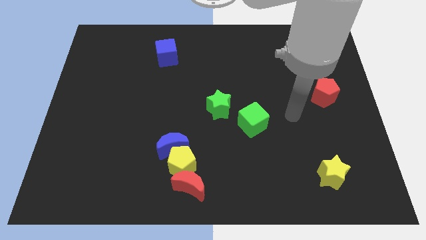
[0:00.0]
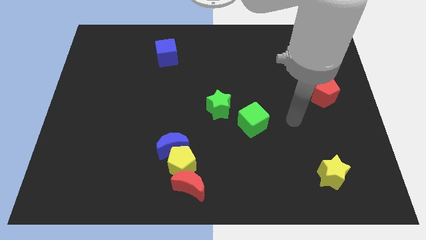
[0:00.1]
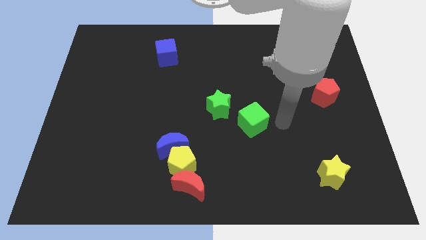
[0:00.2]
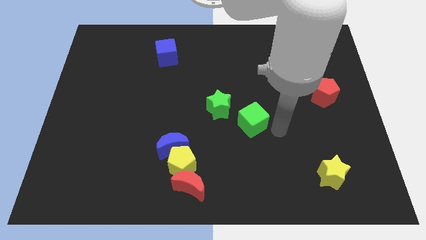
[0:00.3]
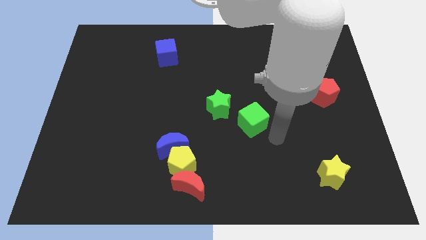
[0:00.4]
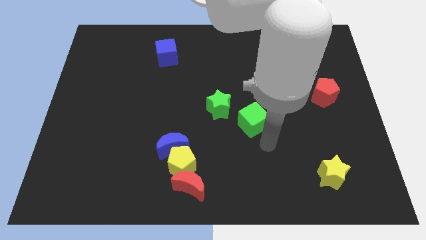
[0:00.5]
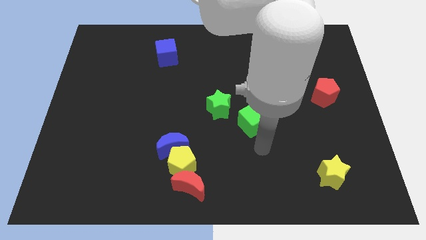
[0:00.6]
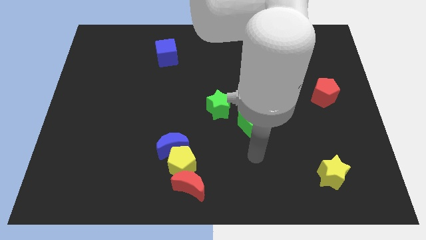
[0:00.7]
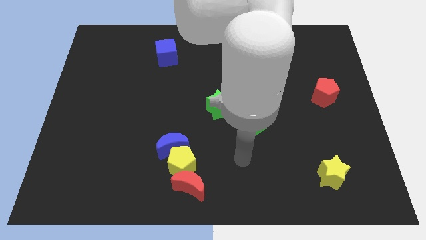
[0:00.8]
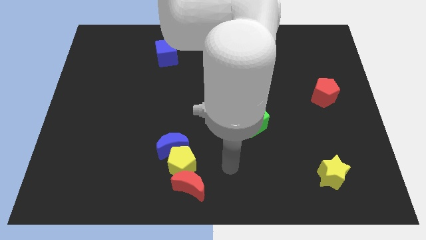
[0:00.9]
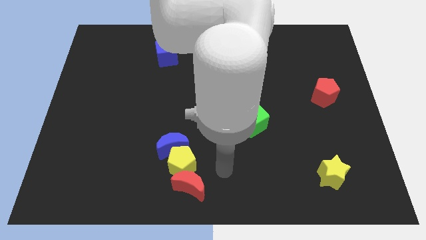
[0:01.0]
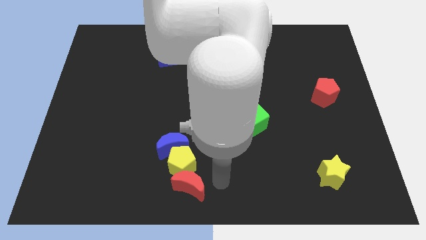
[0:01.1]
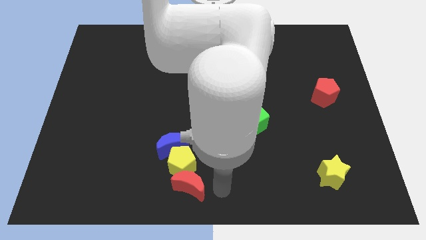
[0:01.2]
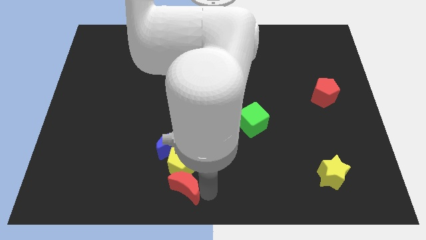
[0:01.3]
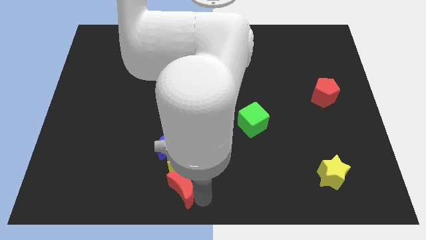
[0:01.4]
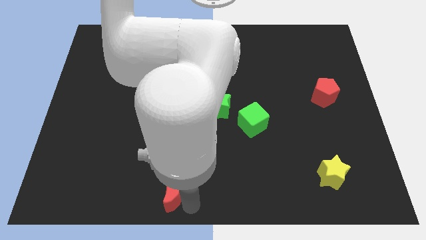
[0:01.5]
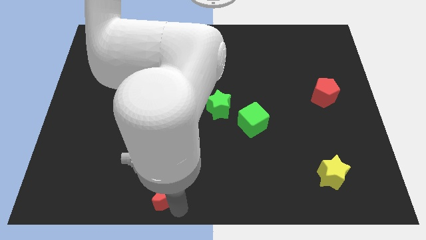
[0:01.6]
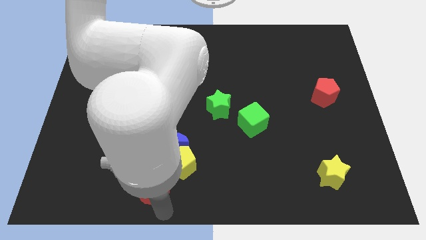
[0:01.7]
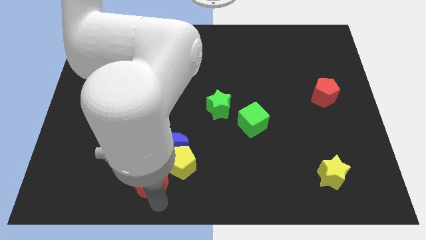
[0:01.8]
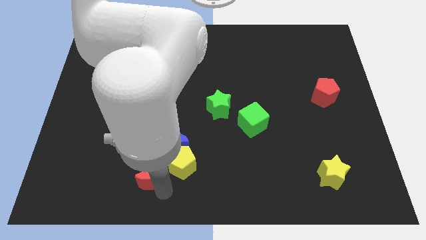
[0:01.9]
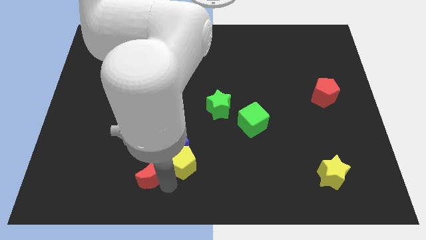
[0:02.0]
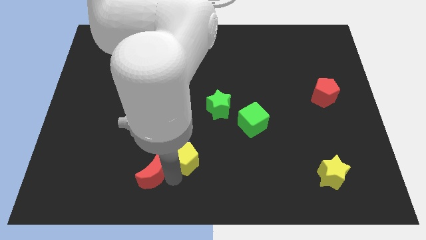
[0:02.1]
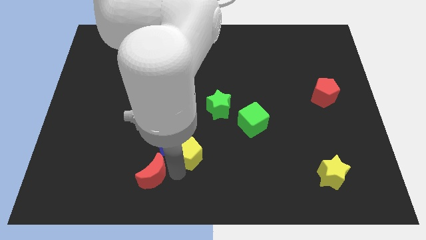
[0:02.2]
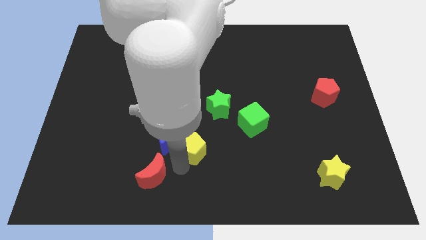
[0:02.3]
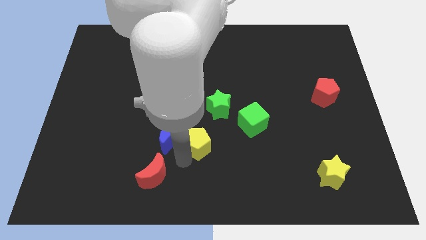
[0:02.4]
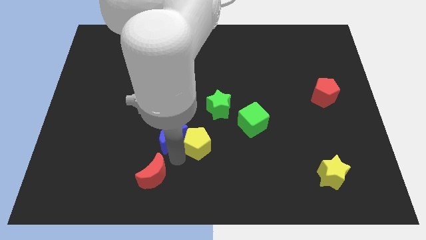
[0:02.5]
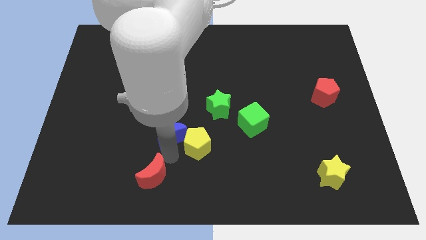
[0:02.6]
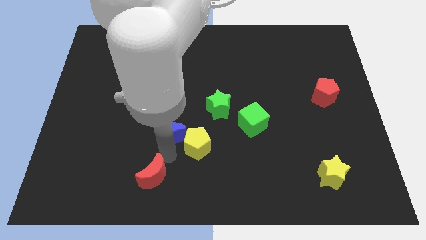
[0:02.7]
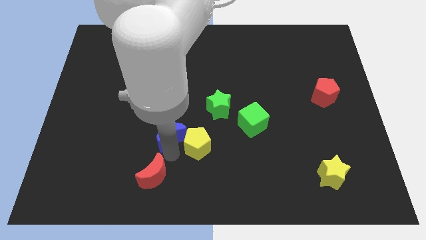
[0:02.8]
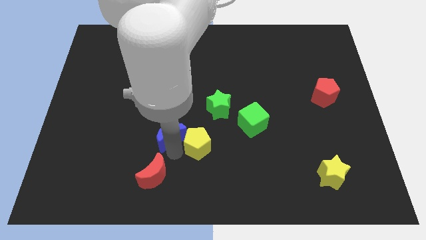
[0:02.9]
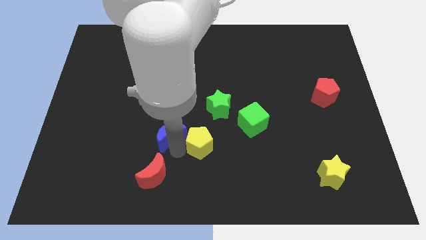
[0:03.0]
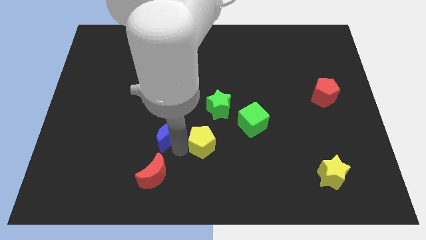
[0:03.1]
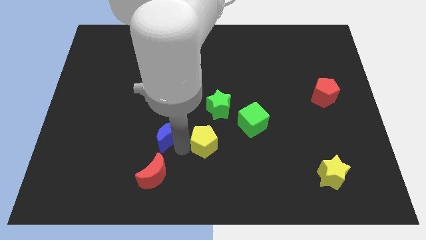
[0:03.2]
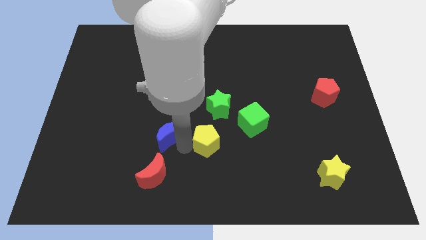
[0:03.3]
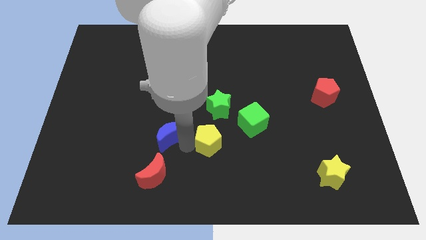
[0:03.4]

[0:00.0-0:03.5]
separate the yellow pentagon from the blue moon and red moon

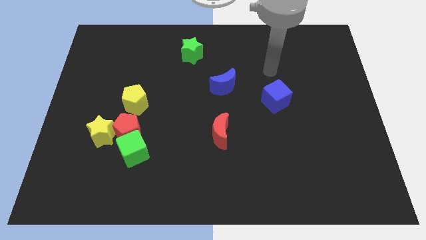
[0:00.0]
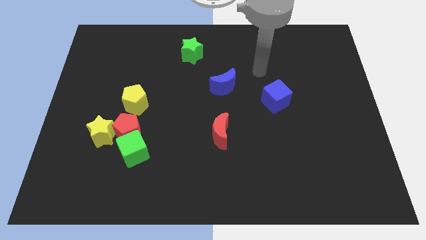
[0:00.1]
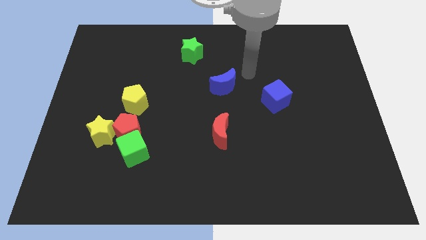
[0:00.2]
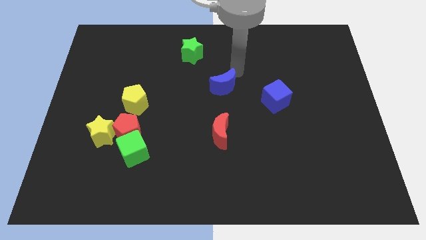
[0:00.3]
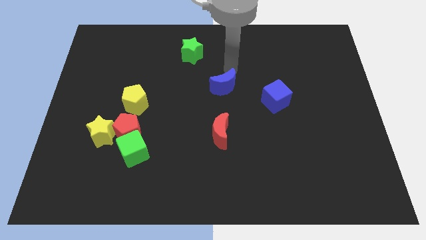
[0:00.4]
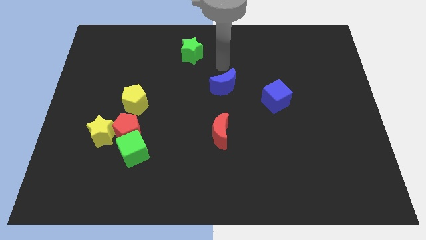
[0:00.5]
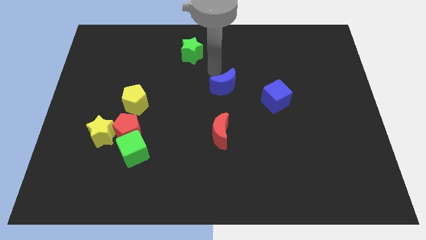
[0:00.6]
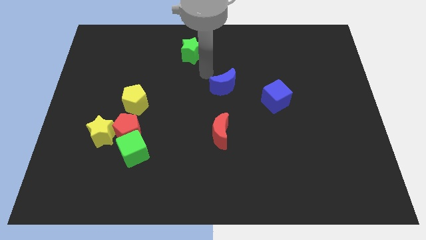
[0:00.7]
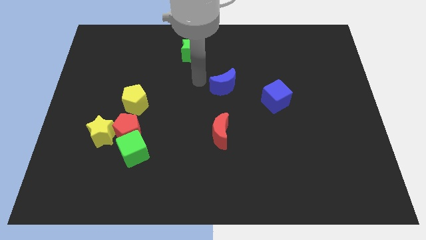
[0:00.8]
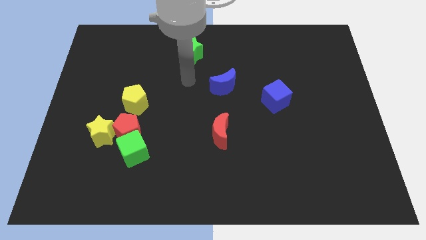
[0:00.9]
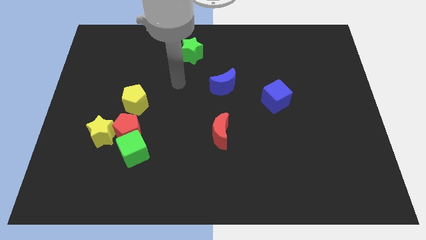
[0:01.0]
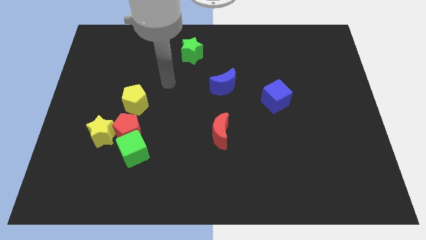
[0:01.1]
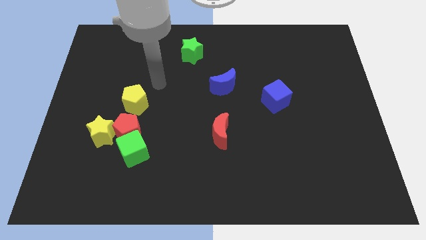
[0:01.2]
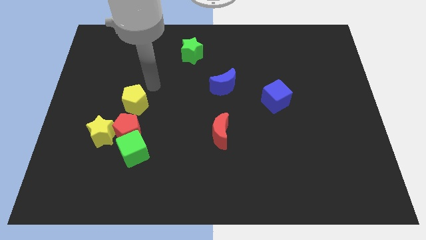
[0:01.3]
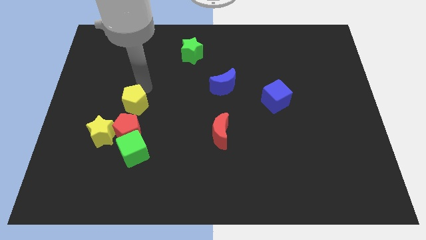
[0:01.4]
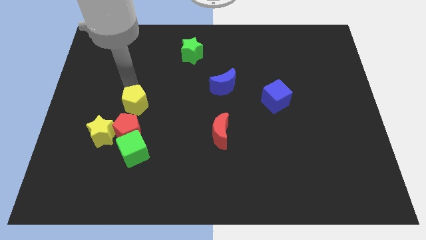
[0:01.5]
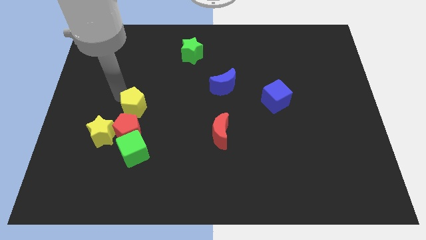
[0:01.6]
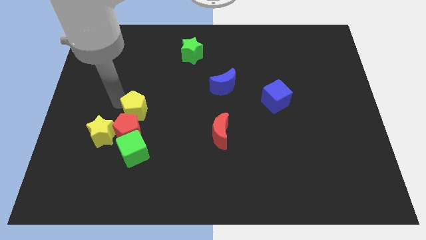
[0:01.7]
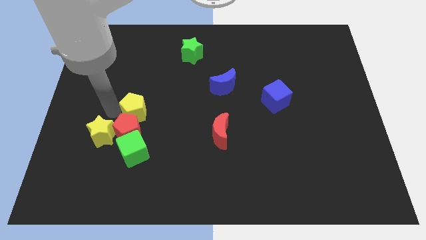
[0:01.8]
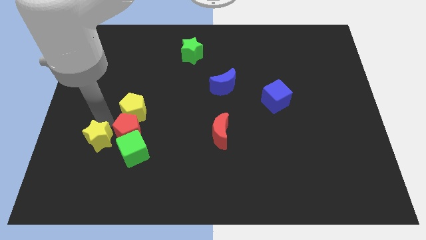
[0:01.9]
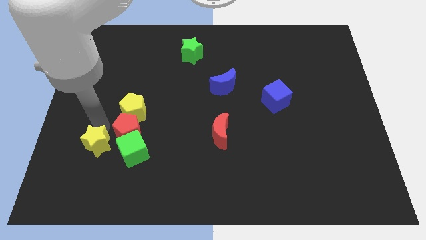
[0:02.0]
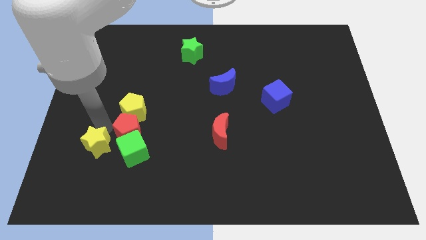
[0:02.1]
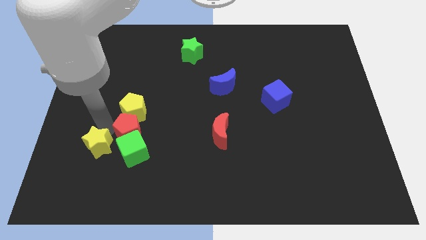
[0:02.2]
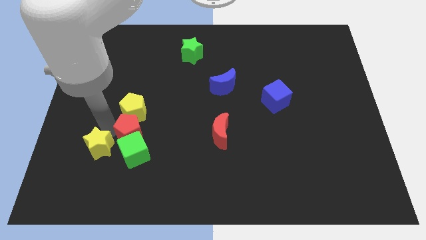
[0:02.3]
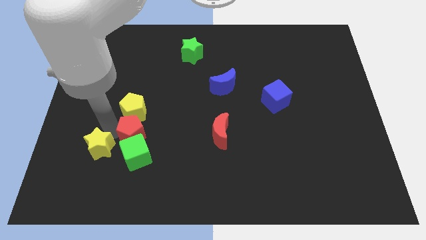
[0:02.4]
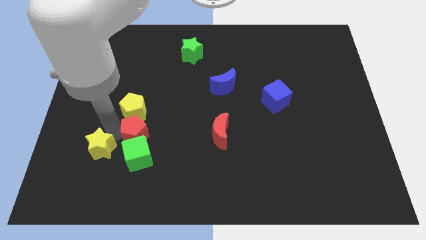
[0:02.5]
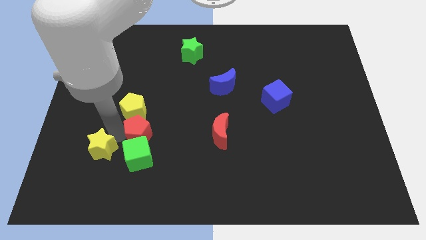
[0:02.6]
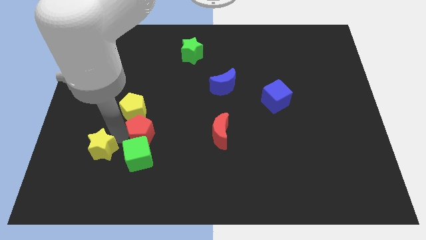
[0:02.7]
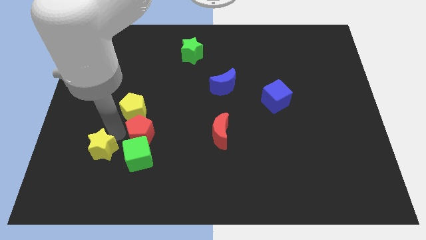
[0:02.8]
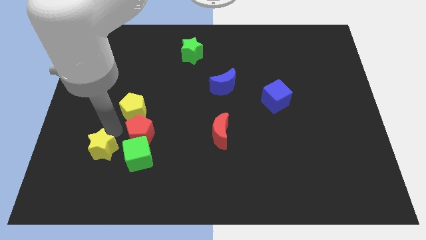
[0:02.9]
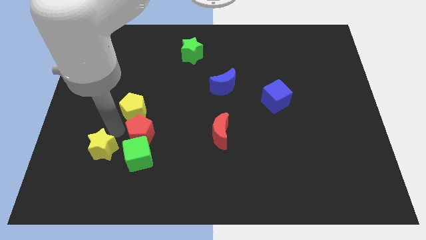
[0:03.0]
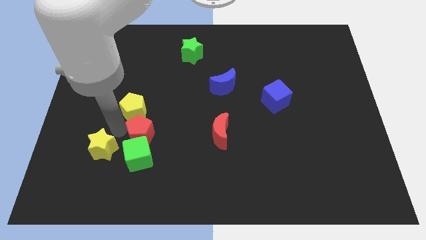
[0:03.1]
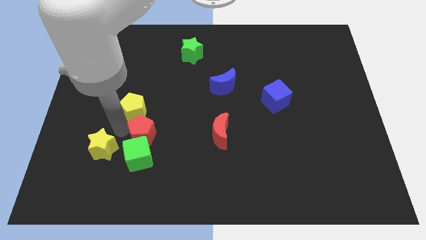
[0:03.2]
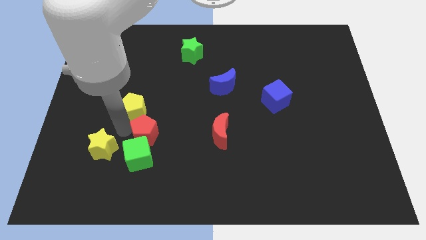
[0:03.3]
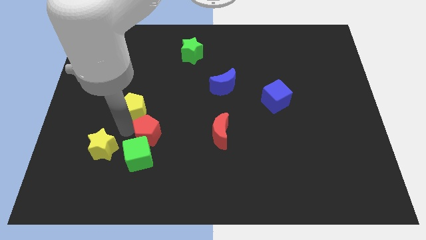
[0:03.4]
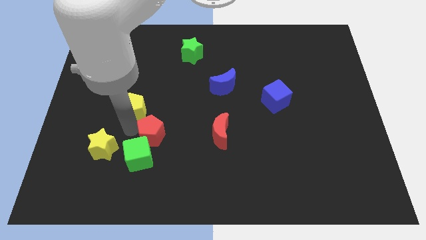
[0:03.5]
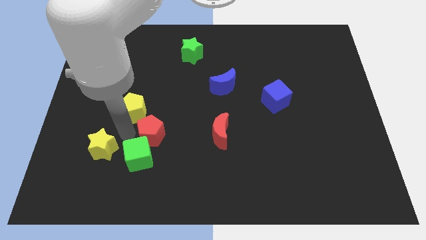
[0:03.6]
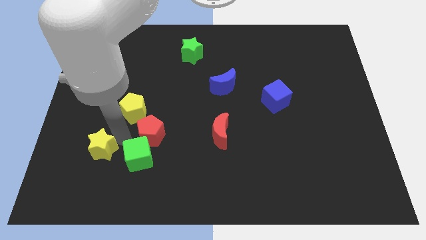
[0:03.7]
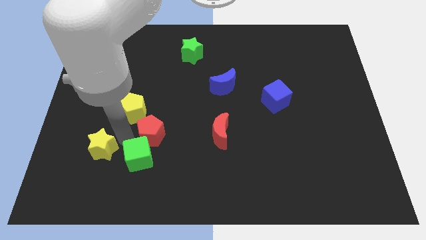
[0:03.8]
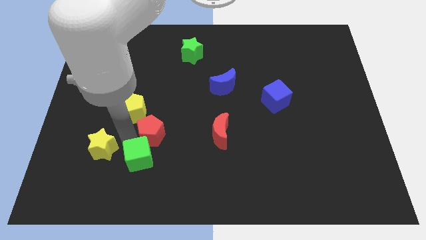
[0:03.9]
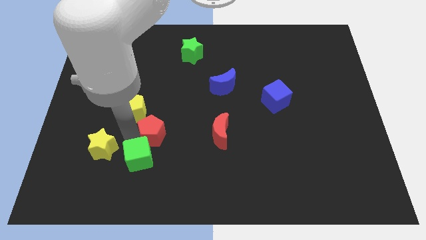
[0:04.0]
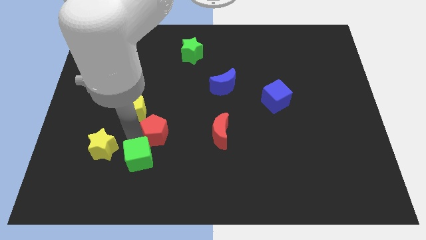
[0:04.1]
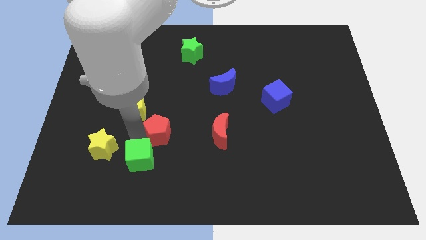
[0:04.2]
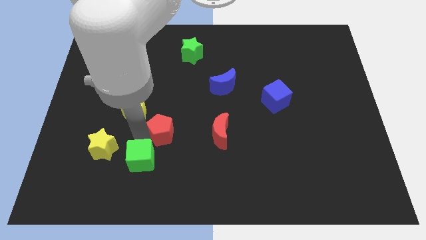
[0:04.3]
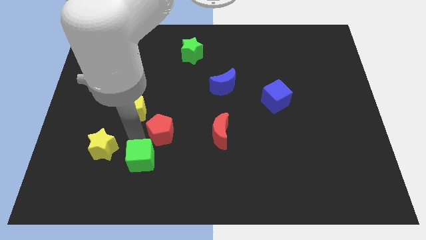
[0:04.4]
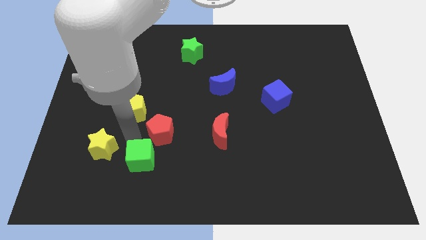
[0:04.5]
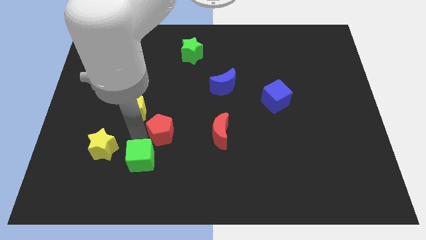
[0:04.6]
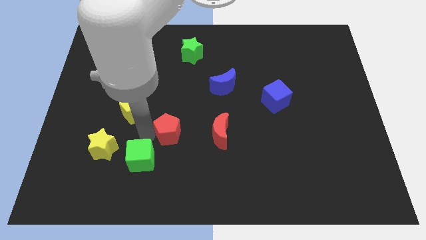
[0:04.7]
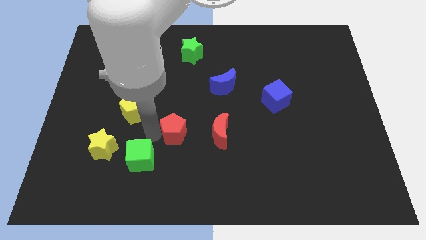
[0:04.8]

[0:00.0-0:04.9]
pull the red pentagon apart from the green cube, yellow star, and yellow pentagon

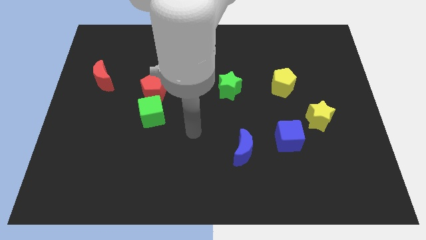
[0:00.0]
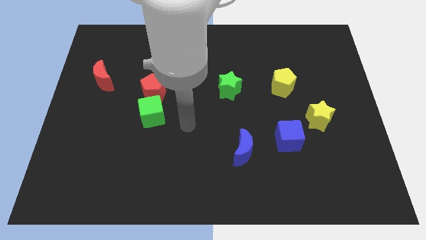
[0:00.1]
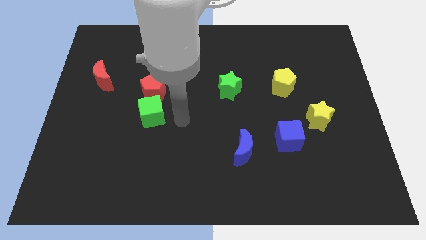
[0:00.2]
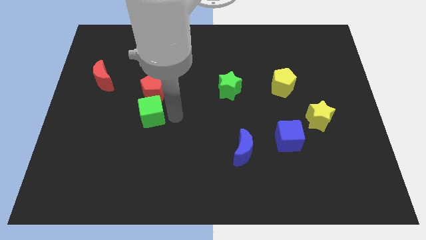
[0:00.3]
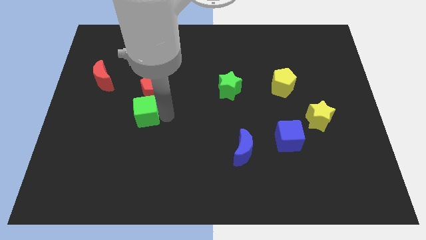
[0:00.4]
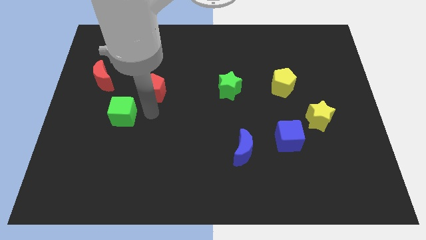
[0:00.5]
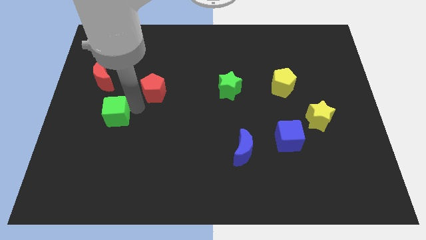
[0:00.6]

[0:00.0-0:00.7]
move the red pentagon away from the green cube

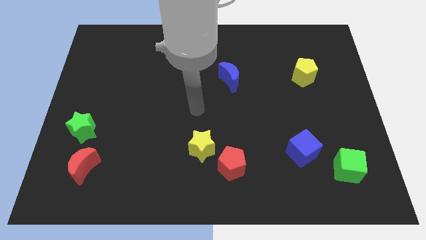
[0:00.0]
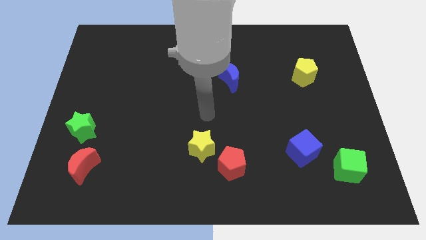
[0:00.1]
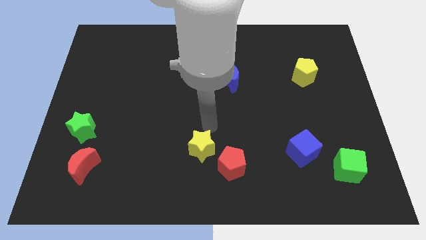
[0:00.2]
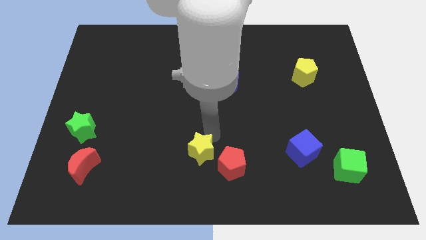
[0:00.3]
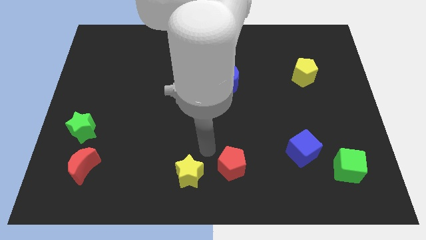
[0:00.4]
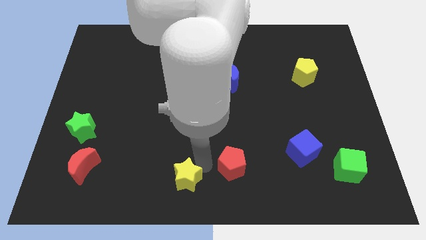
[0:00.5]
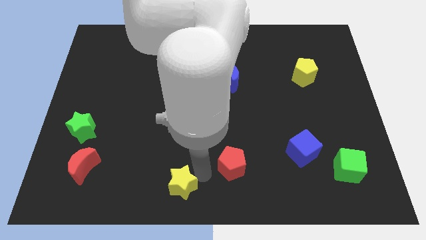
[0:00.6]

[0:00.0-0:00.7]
pull the red pentagon apart from the yellow star
